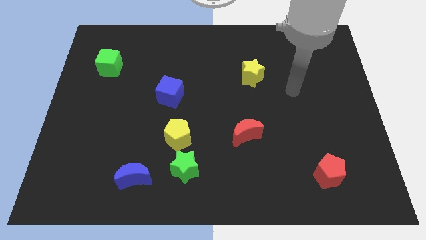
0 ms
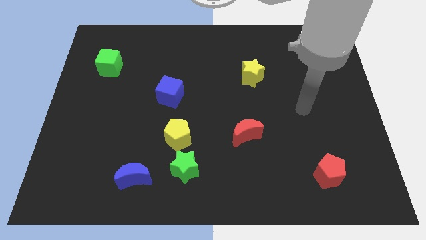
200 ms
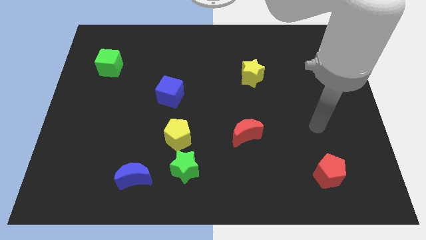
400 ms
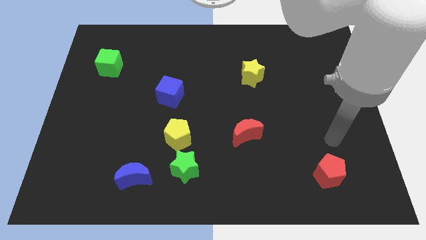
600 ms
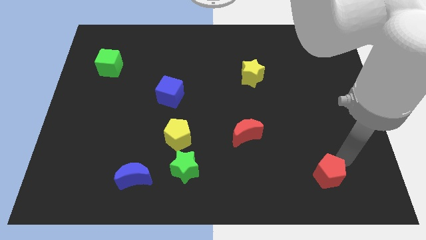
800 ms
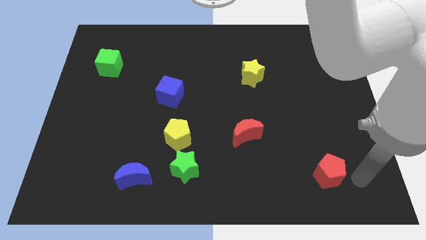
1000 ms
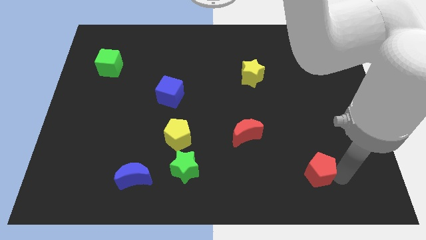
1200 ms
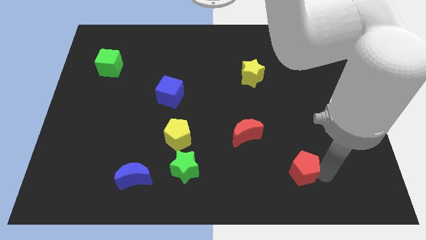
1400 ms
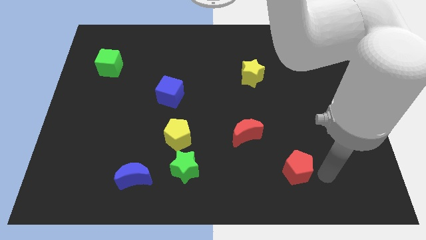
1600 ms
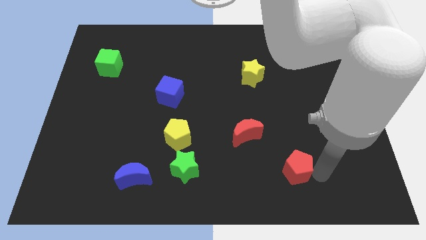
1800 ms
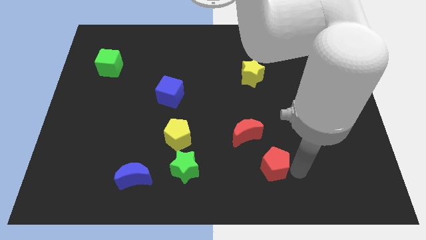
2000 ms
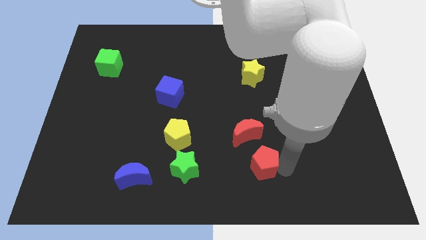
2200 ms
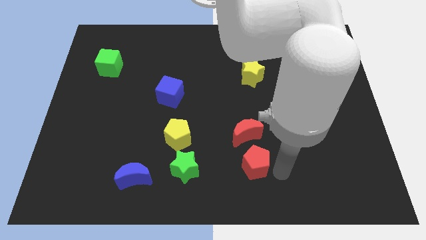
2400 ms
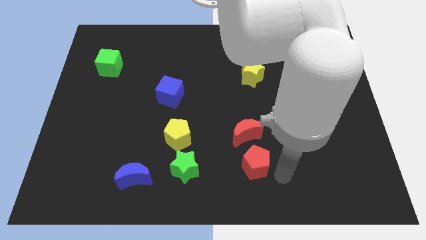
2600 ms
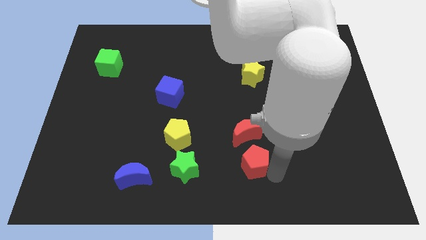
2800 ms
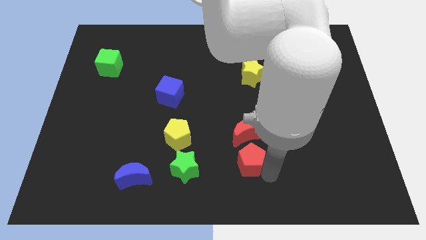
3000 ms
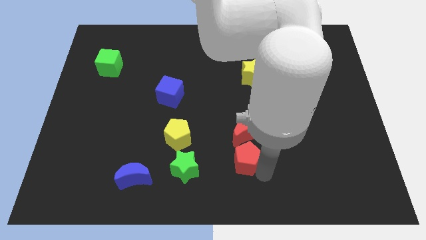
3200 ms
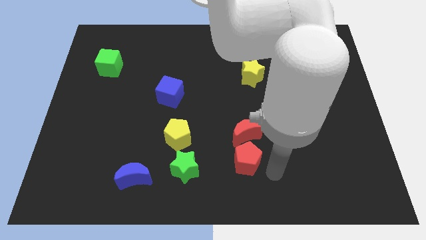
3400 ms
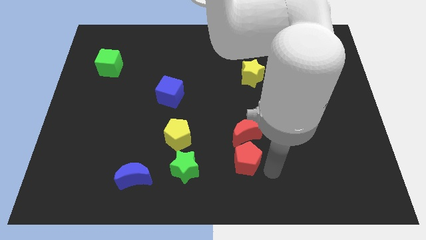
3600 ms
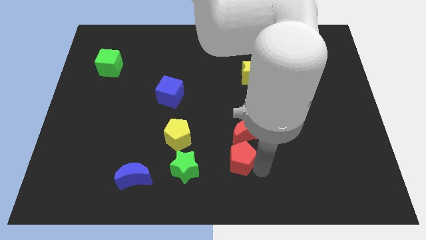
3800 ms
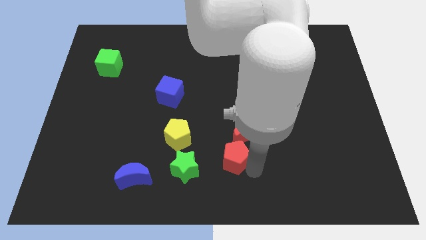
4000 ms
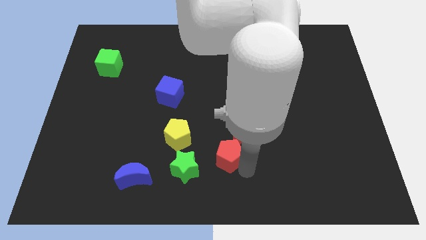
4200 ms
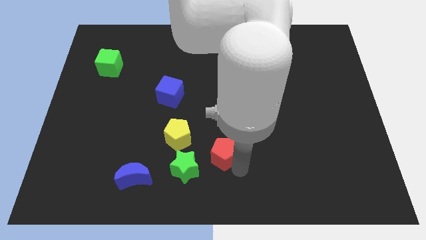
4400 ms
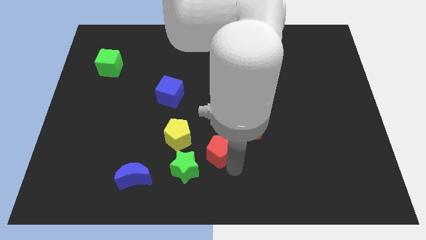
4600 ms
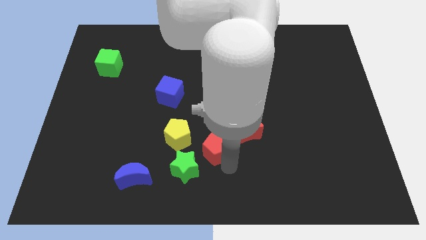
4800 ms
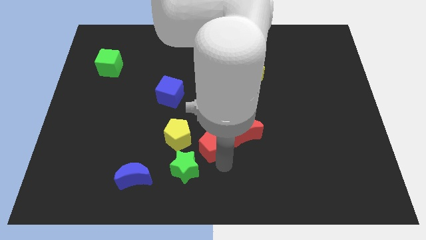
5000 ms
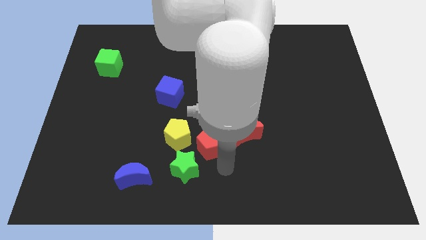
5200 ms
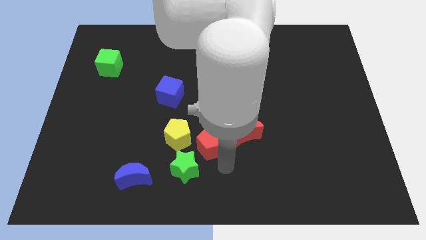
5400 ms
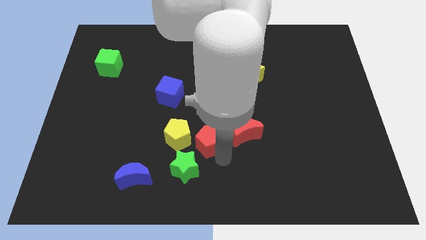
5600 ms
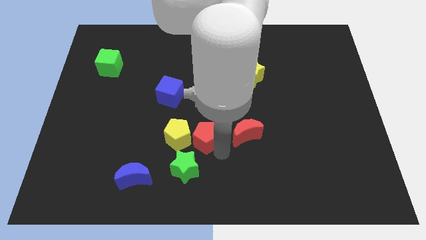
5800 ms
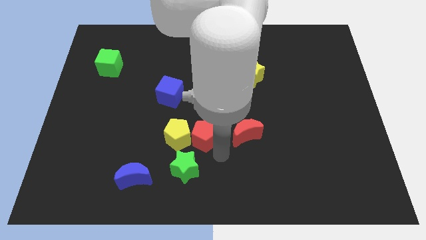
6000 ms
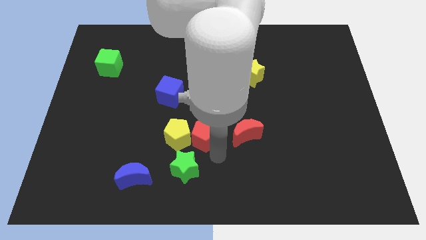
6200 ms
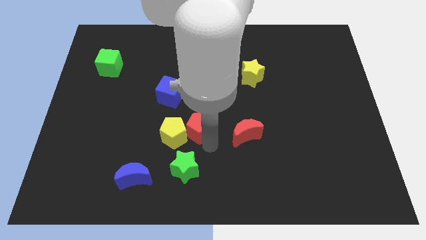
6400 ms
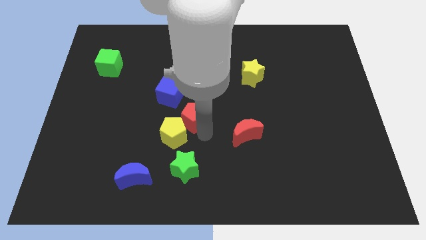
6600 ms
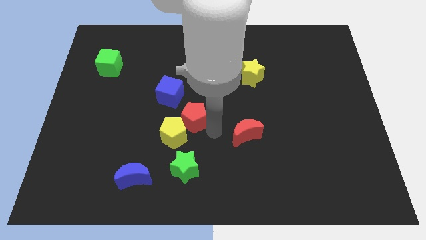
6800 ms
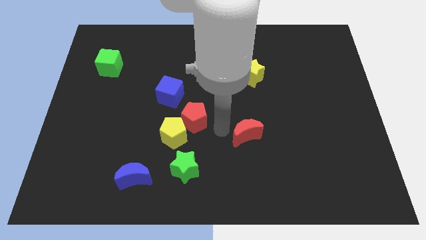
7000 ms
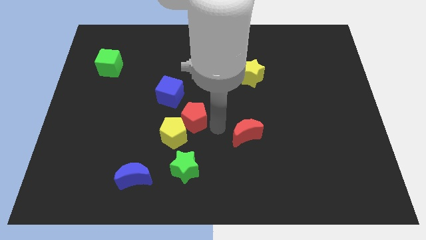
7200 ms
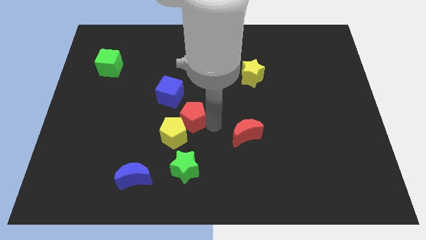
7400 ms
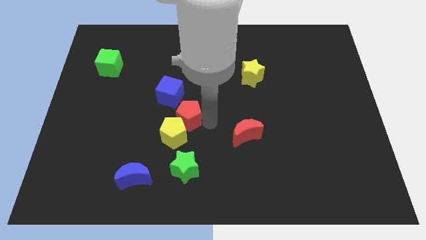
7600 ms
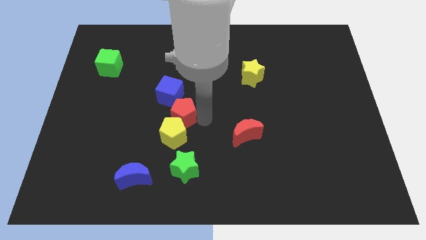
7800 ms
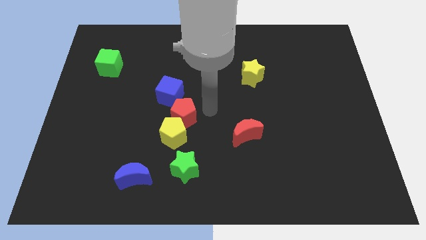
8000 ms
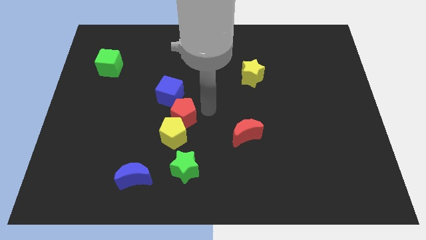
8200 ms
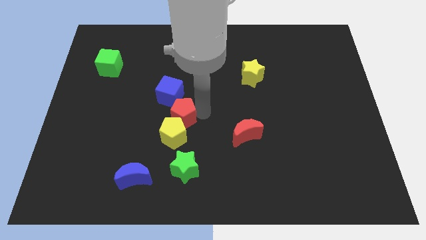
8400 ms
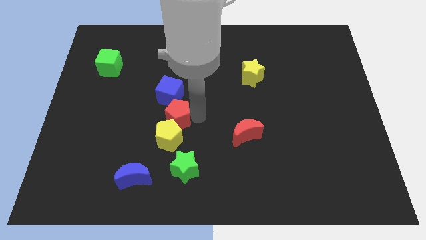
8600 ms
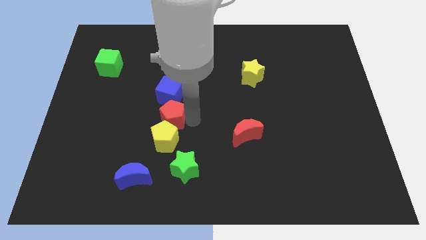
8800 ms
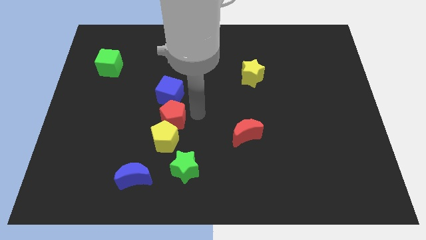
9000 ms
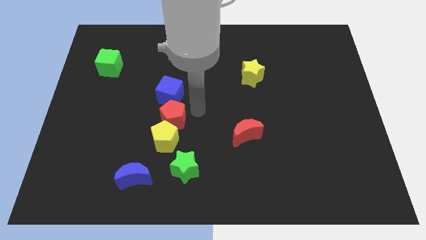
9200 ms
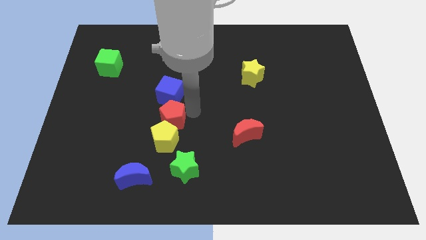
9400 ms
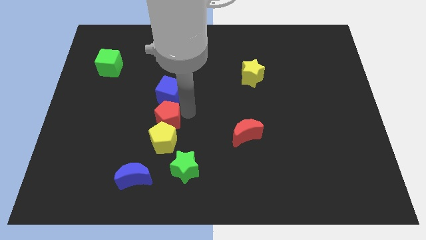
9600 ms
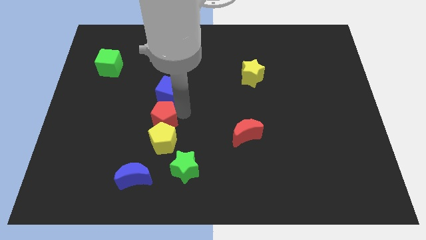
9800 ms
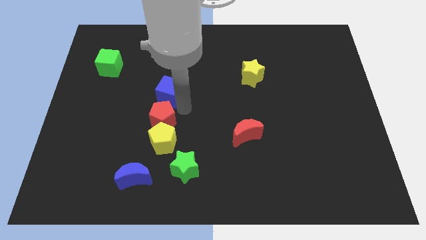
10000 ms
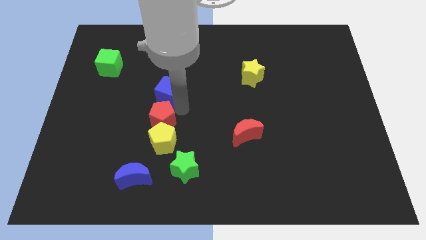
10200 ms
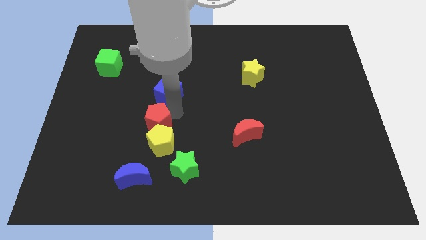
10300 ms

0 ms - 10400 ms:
push the red pentagon to the top of the blue moon

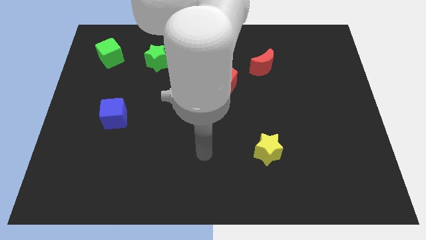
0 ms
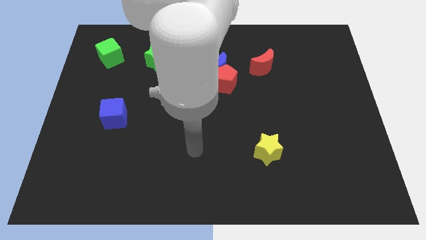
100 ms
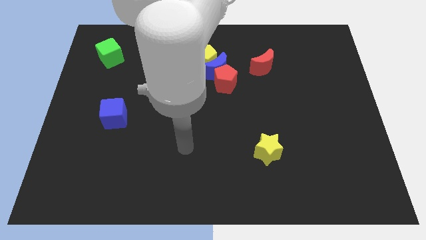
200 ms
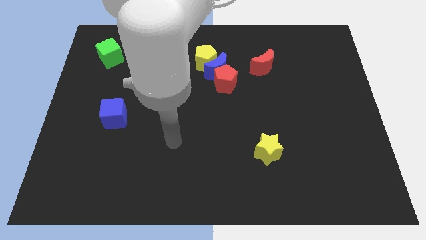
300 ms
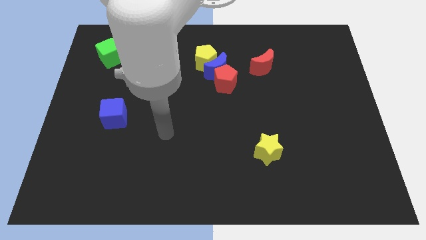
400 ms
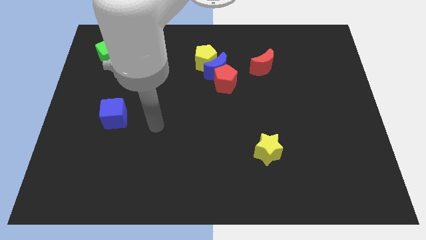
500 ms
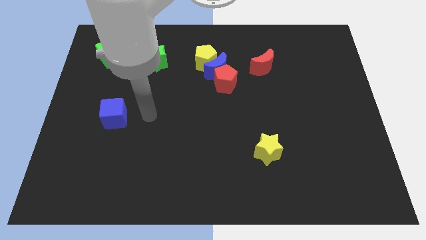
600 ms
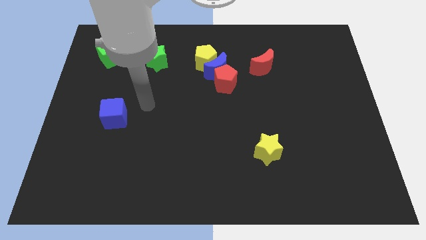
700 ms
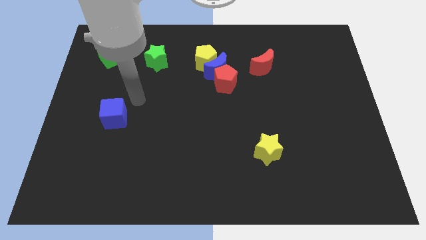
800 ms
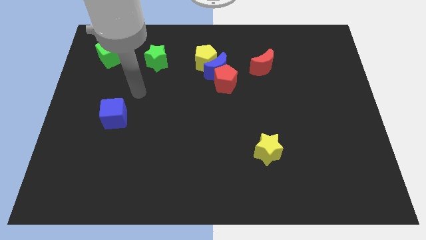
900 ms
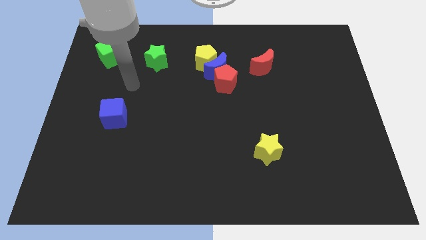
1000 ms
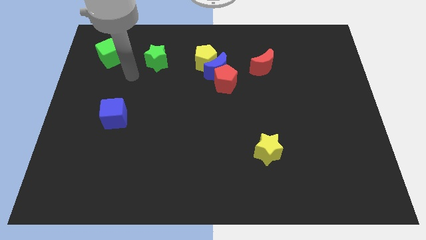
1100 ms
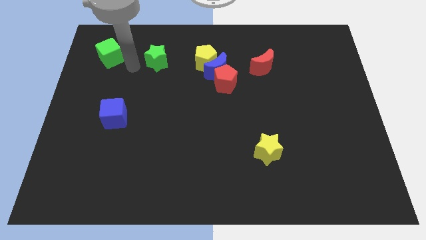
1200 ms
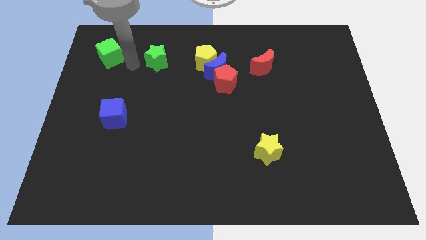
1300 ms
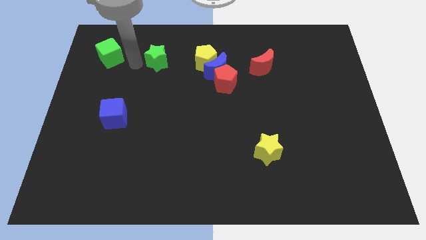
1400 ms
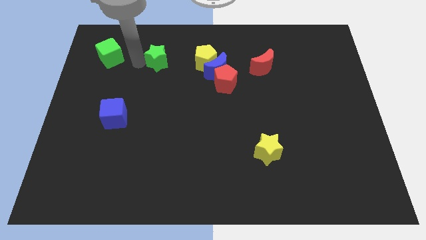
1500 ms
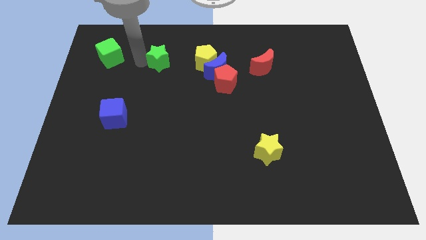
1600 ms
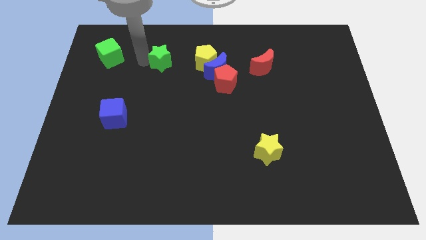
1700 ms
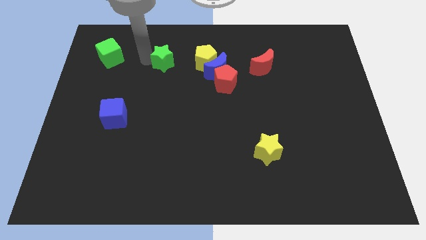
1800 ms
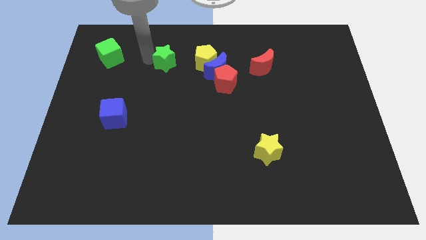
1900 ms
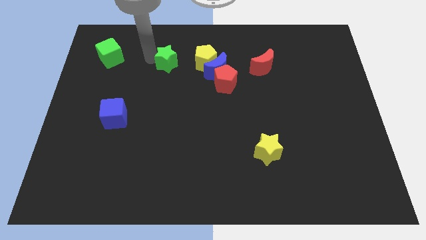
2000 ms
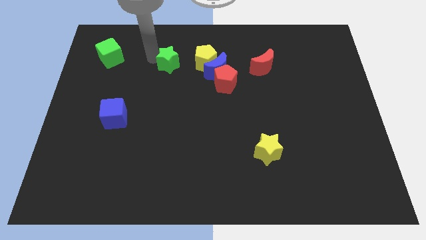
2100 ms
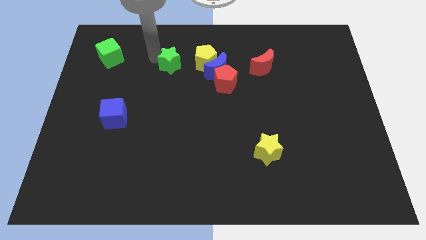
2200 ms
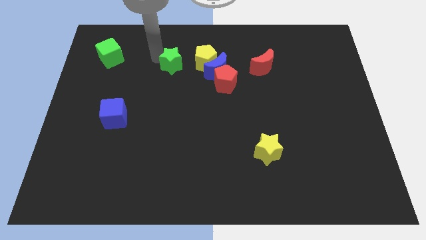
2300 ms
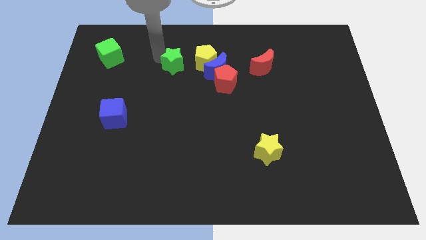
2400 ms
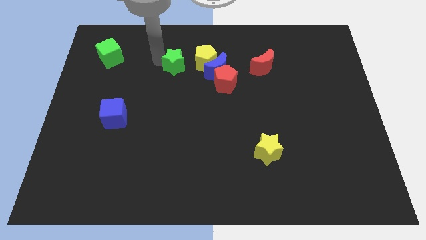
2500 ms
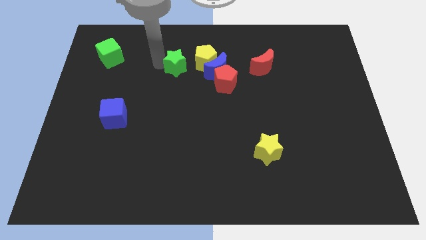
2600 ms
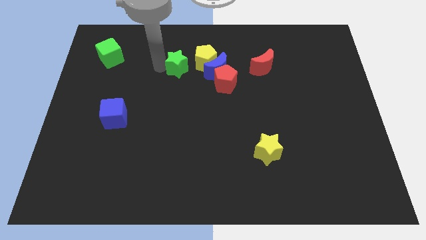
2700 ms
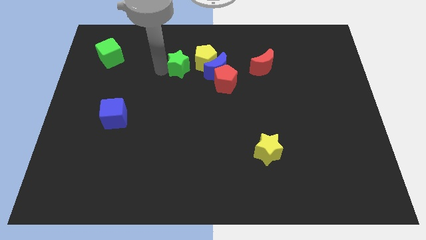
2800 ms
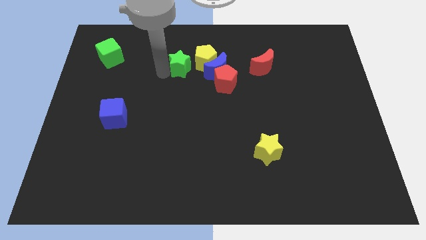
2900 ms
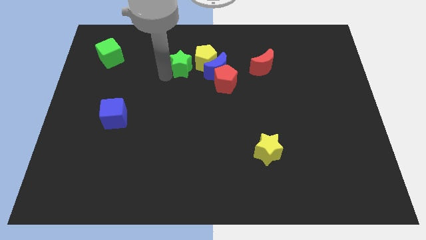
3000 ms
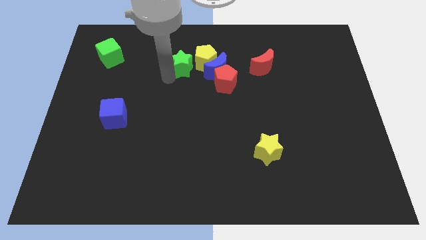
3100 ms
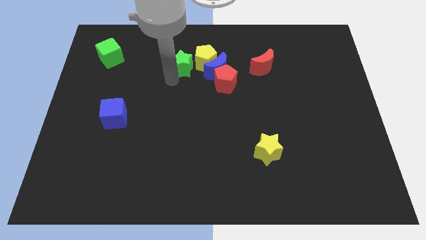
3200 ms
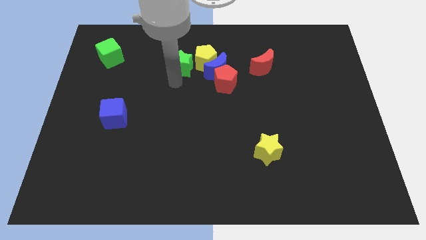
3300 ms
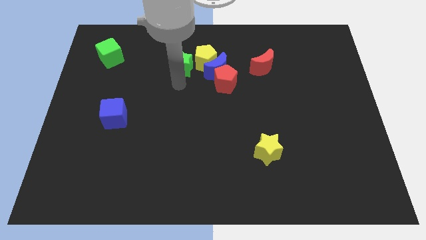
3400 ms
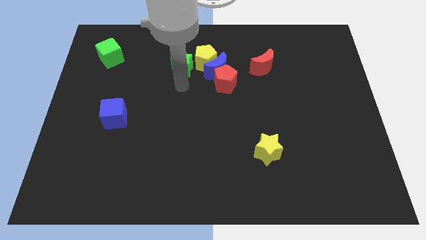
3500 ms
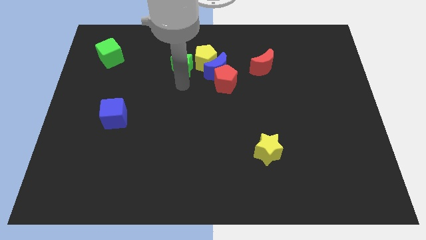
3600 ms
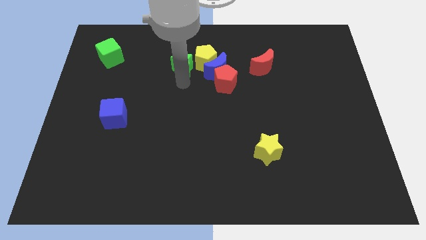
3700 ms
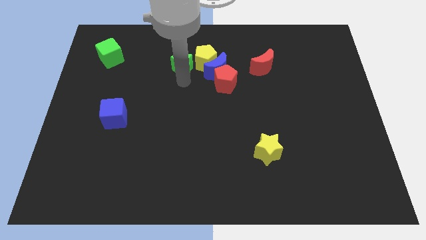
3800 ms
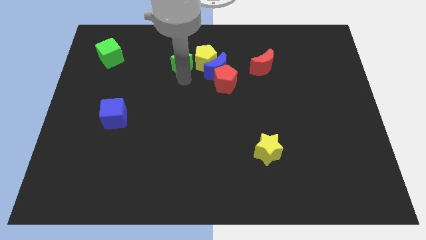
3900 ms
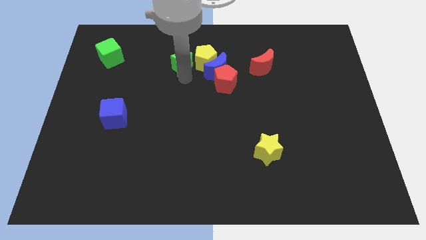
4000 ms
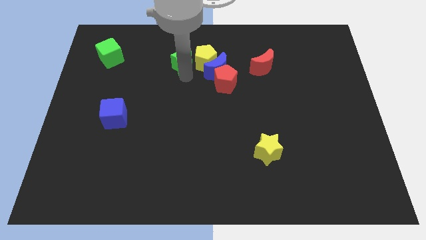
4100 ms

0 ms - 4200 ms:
push the green star to the top left side of the blue moon
